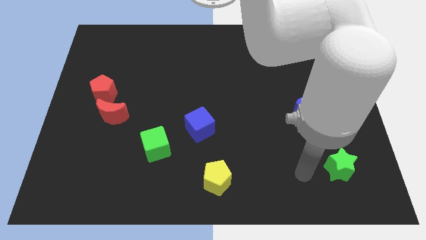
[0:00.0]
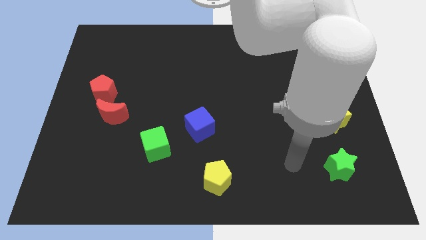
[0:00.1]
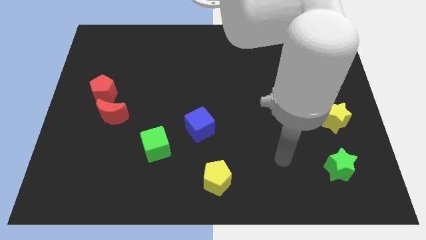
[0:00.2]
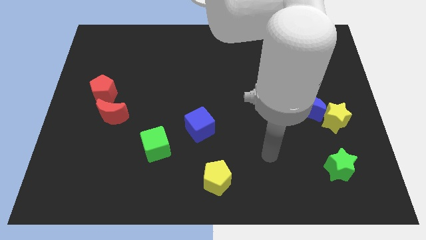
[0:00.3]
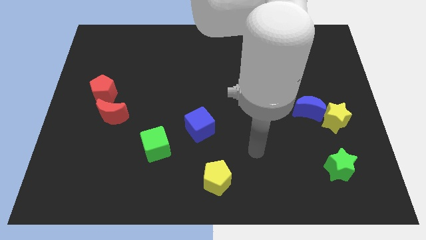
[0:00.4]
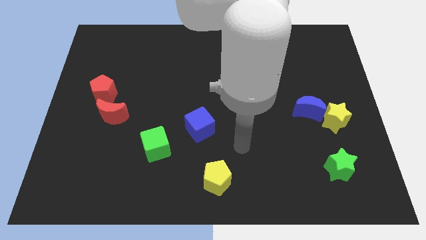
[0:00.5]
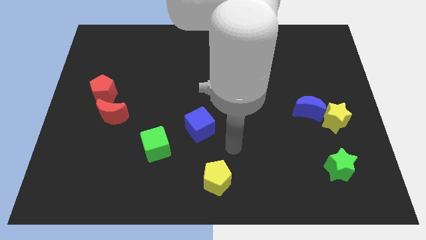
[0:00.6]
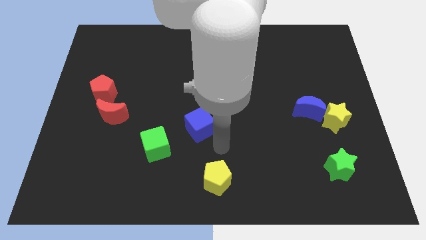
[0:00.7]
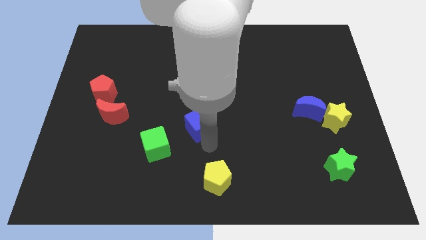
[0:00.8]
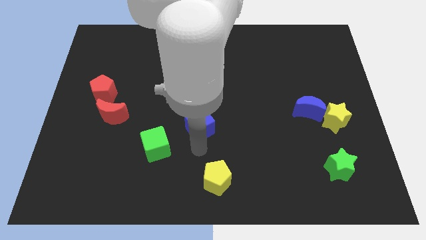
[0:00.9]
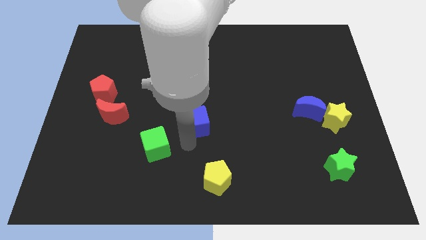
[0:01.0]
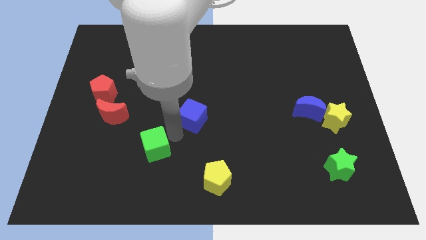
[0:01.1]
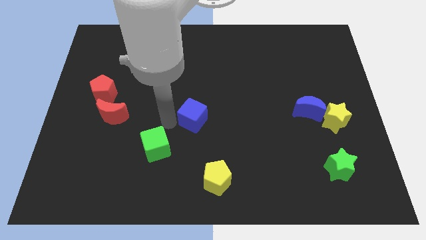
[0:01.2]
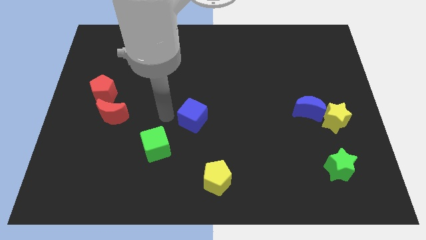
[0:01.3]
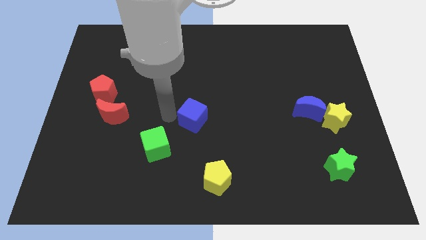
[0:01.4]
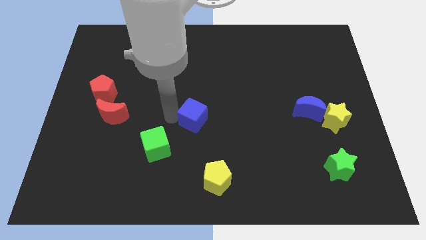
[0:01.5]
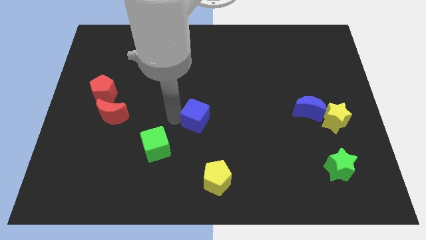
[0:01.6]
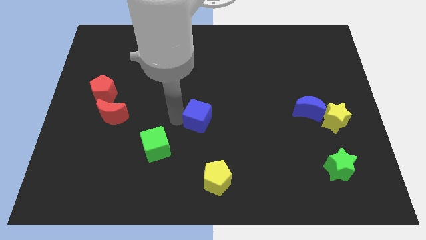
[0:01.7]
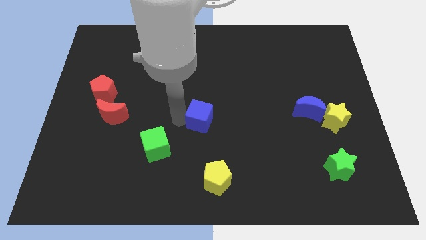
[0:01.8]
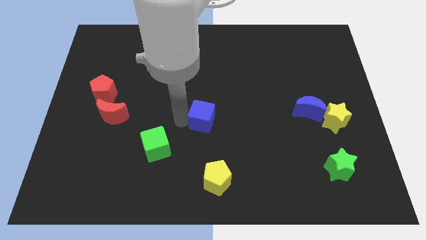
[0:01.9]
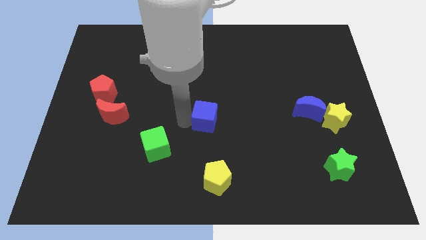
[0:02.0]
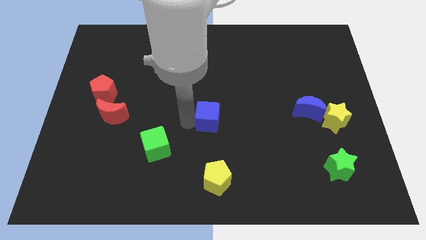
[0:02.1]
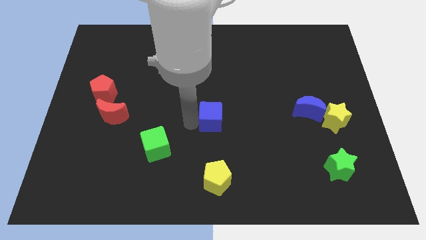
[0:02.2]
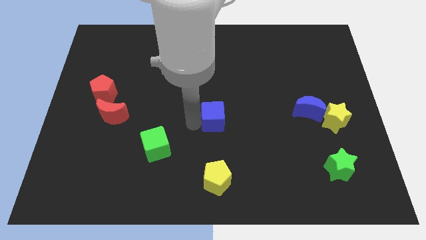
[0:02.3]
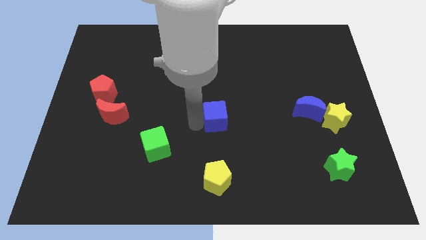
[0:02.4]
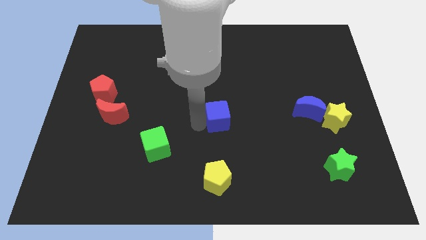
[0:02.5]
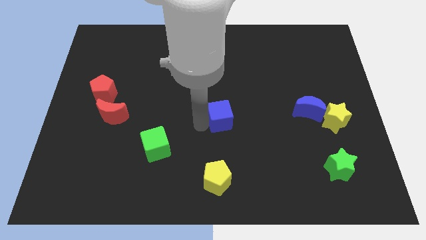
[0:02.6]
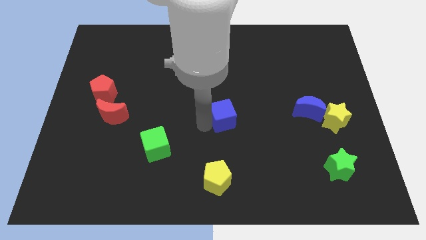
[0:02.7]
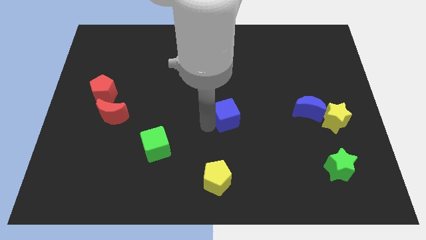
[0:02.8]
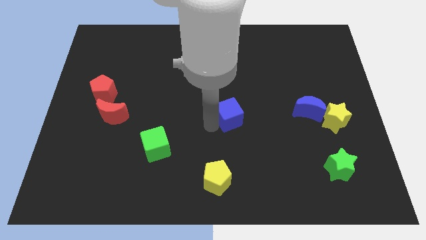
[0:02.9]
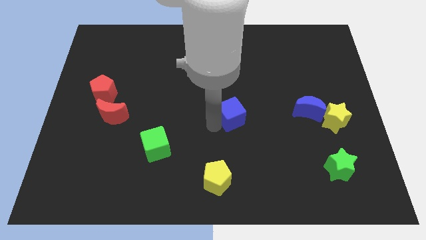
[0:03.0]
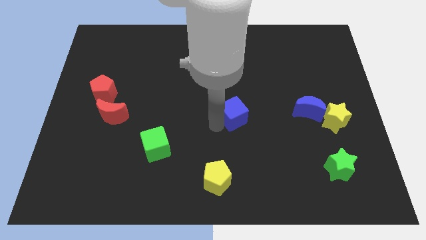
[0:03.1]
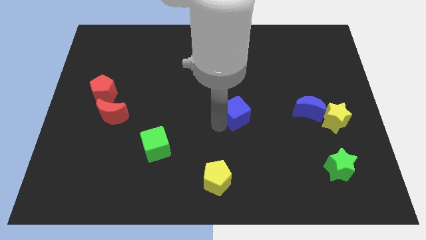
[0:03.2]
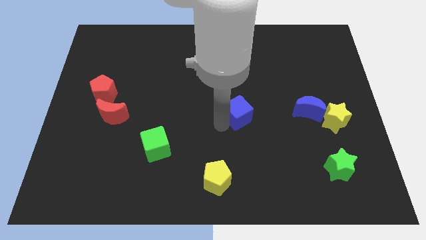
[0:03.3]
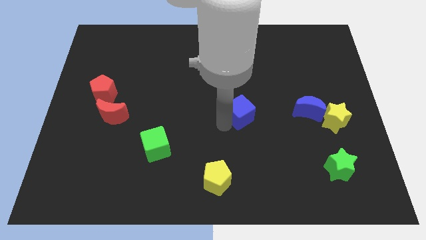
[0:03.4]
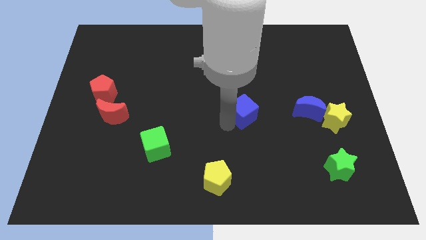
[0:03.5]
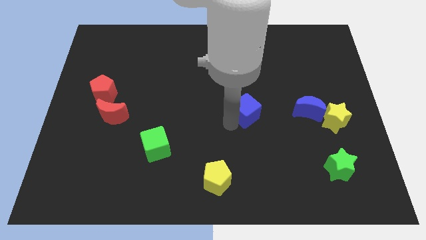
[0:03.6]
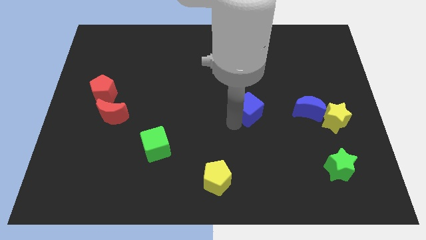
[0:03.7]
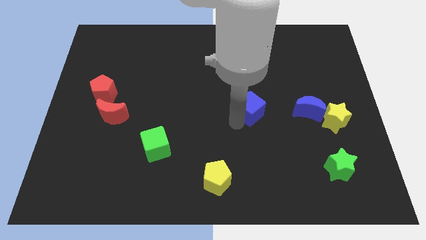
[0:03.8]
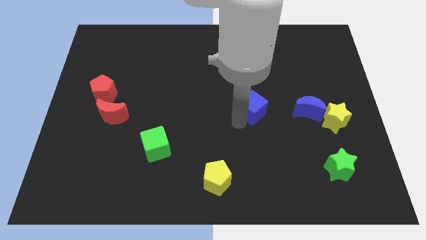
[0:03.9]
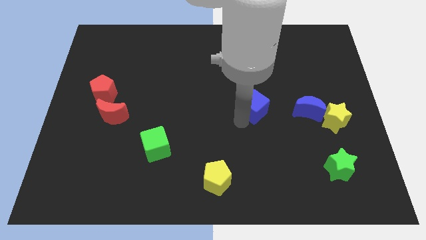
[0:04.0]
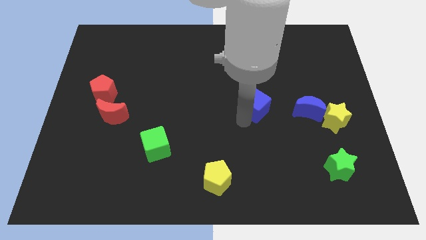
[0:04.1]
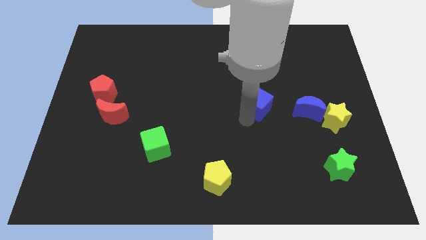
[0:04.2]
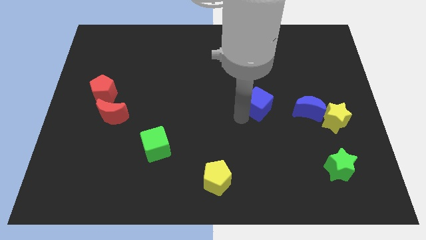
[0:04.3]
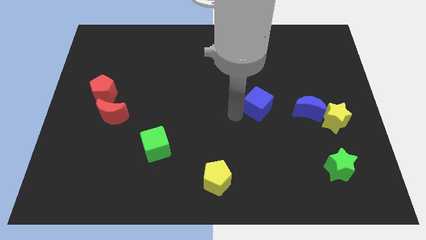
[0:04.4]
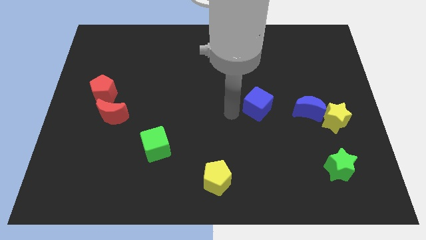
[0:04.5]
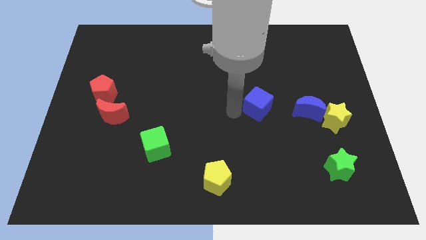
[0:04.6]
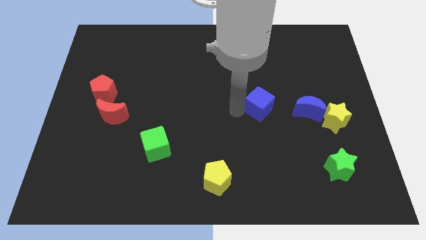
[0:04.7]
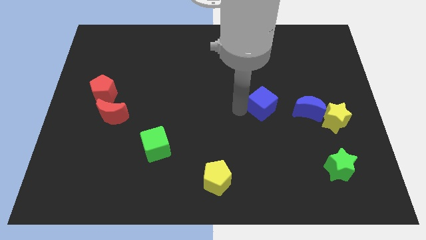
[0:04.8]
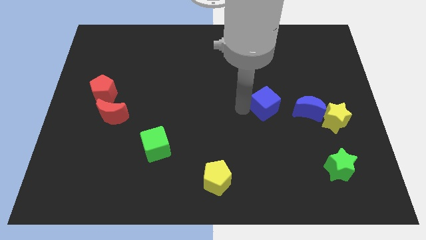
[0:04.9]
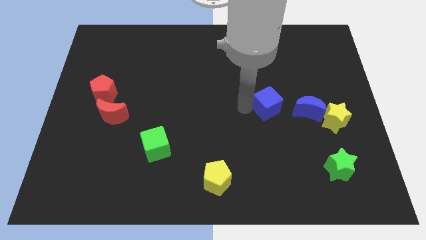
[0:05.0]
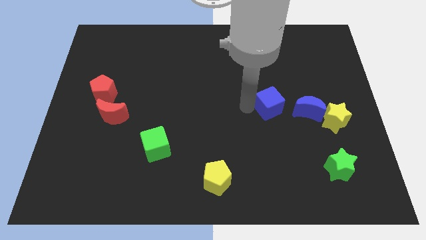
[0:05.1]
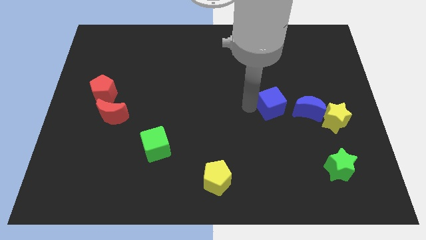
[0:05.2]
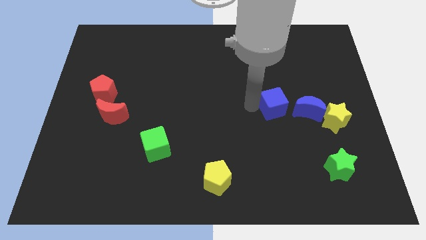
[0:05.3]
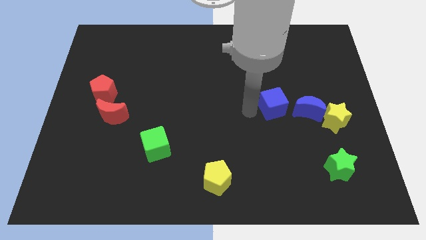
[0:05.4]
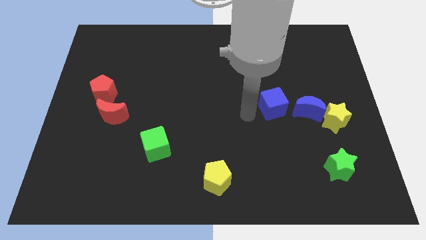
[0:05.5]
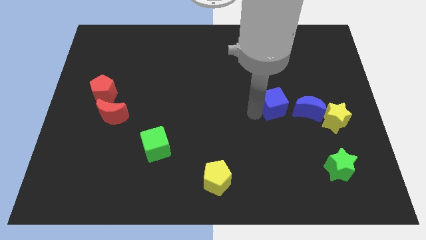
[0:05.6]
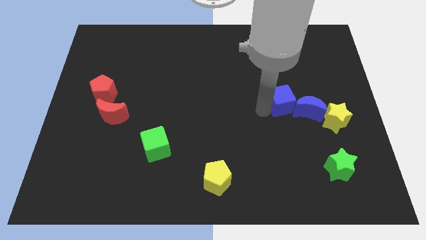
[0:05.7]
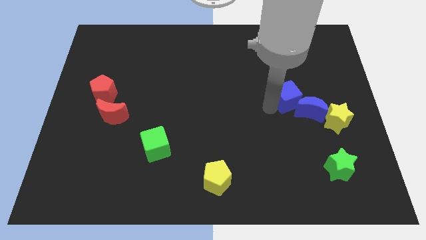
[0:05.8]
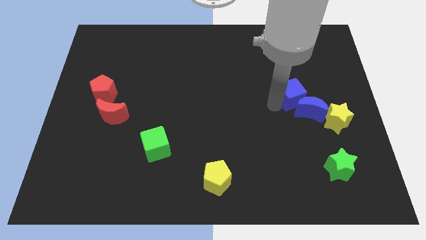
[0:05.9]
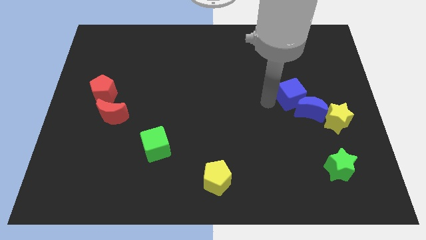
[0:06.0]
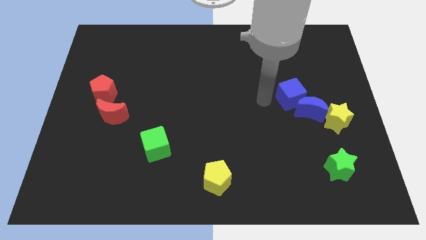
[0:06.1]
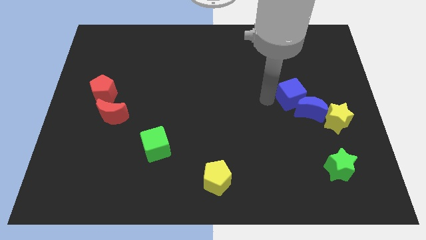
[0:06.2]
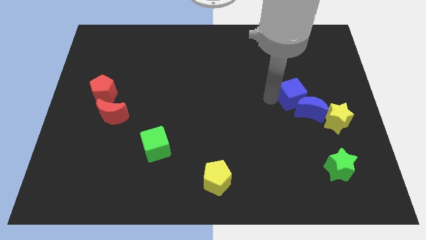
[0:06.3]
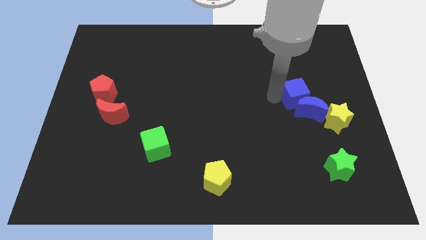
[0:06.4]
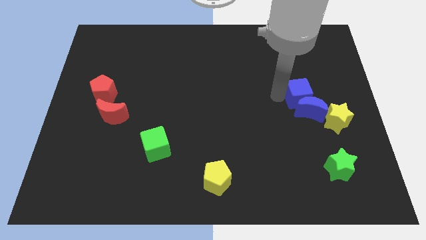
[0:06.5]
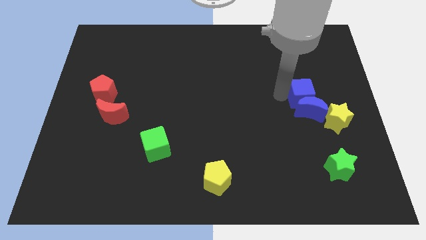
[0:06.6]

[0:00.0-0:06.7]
slide the blue cube to the top right side of the blue moon

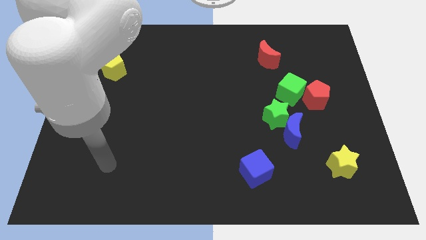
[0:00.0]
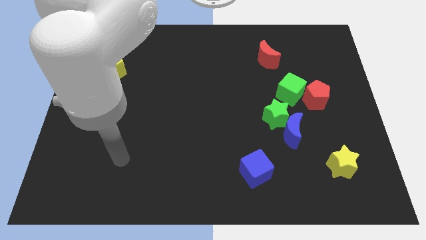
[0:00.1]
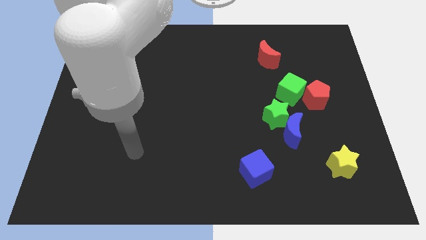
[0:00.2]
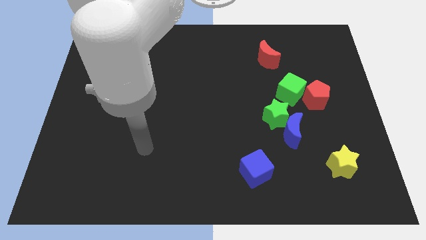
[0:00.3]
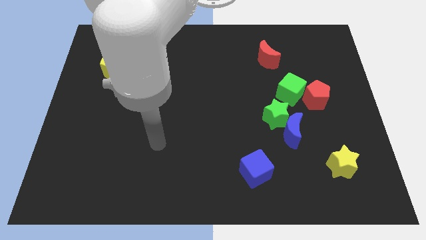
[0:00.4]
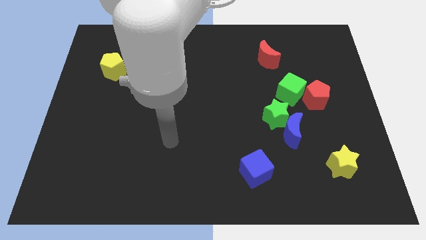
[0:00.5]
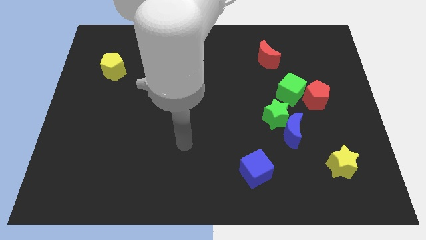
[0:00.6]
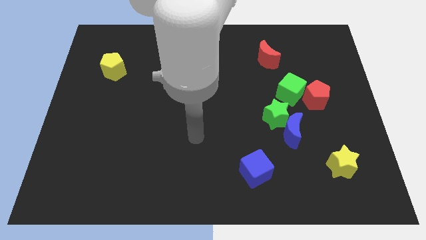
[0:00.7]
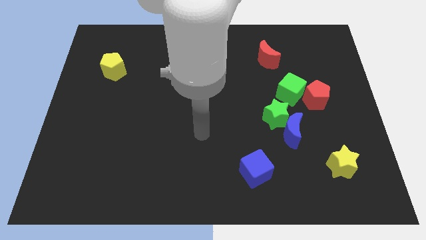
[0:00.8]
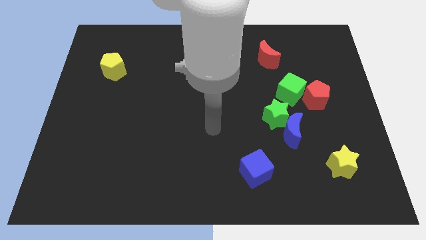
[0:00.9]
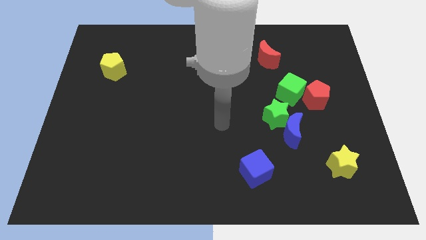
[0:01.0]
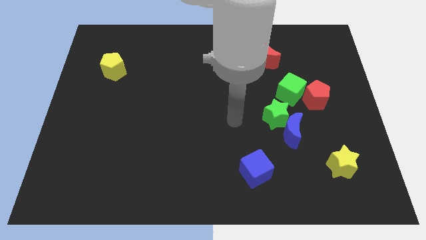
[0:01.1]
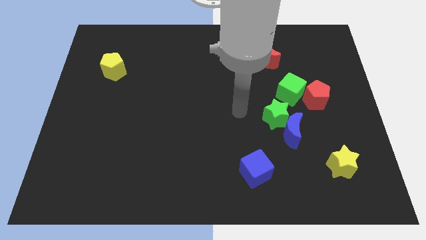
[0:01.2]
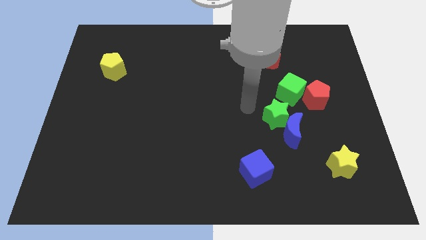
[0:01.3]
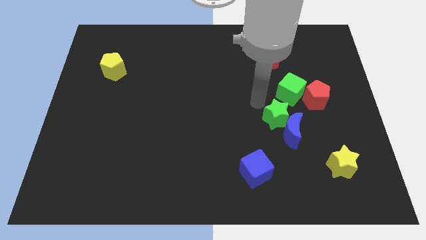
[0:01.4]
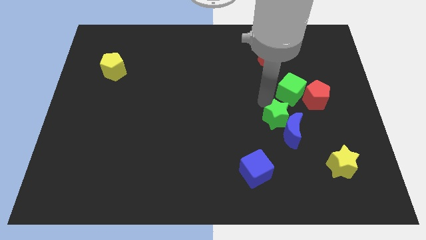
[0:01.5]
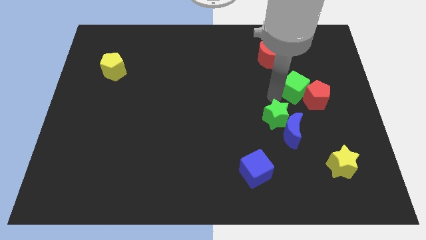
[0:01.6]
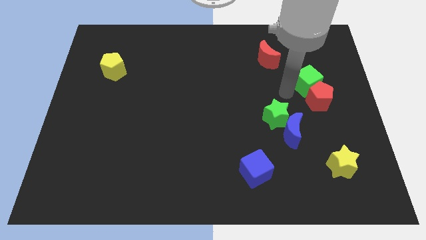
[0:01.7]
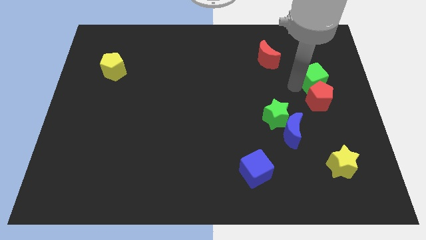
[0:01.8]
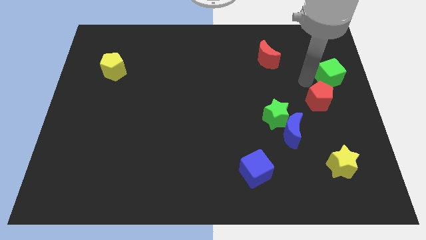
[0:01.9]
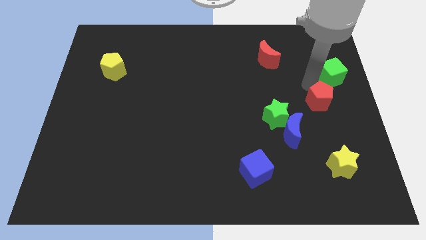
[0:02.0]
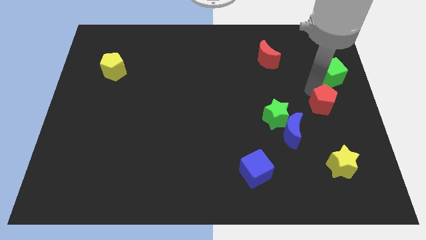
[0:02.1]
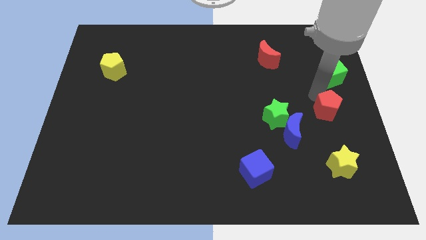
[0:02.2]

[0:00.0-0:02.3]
move the red pentagon above the yellow star
